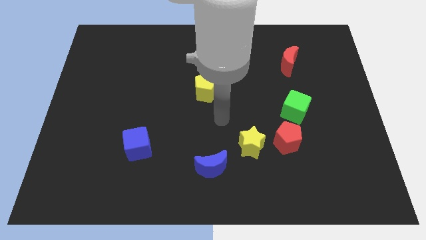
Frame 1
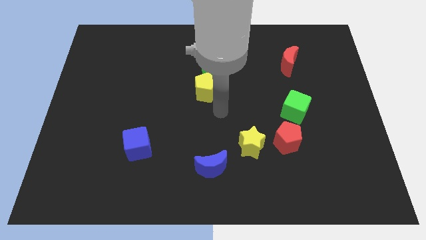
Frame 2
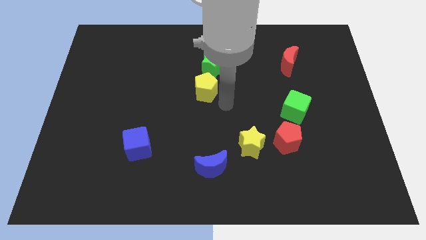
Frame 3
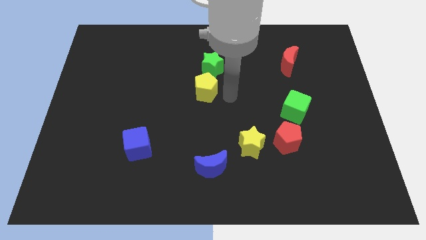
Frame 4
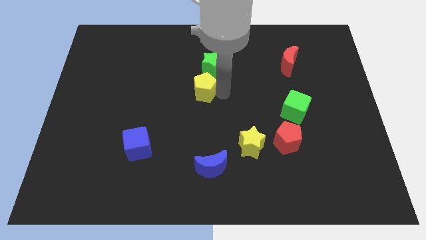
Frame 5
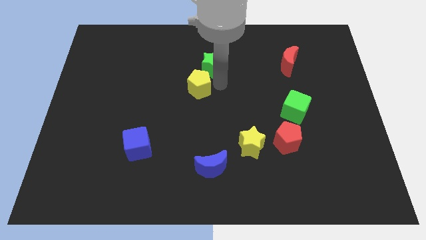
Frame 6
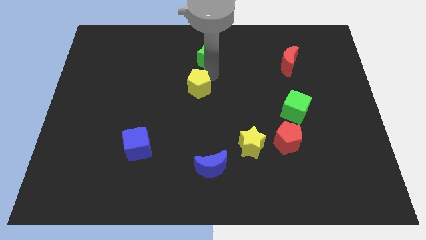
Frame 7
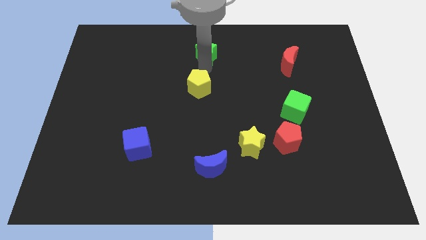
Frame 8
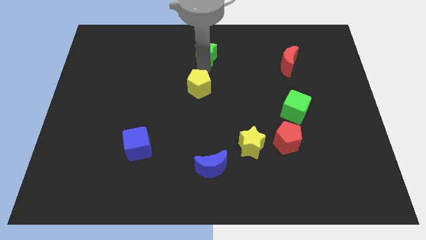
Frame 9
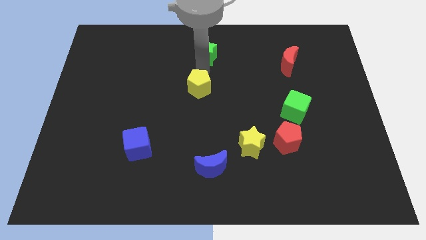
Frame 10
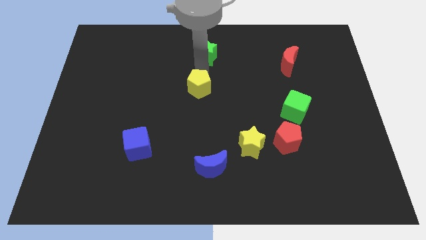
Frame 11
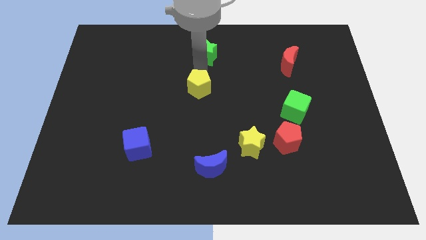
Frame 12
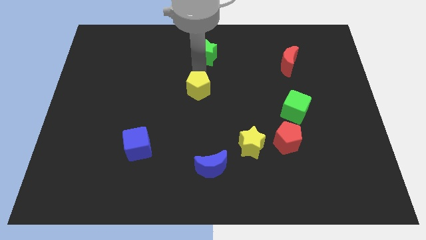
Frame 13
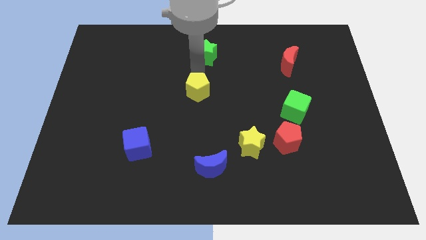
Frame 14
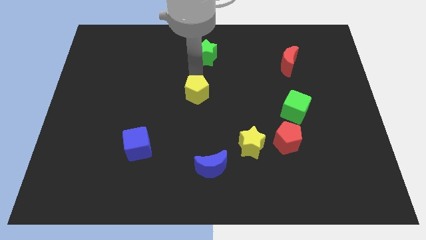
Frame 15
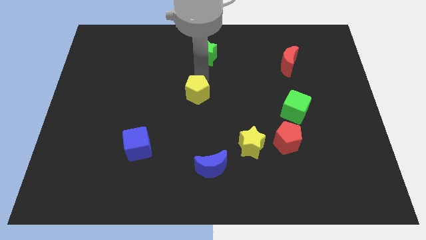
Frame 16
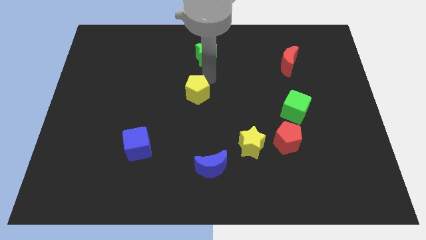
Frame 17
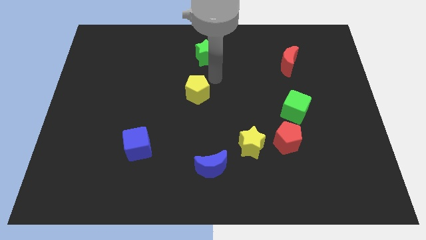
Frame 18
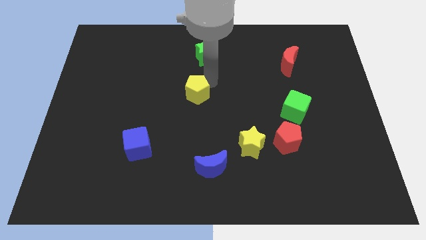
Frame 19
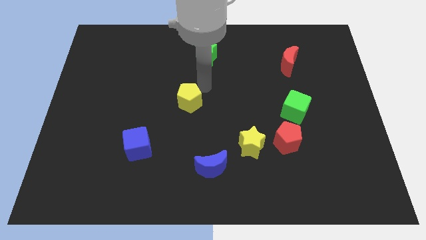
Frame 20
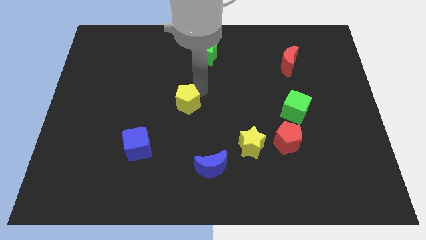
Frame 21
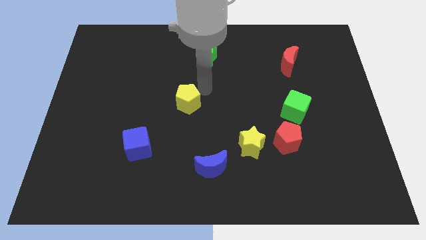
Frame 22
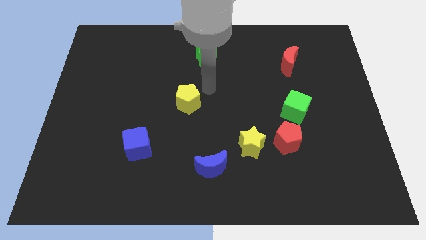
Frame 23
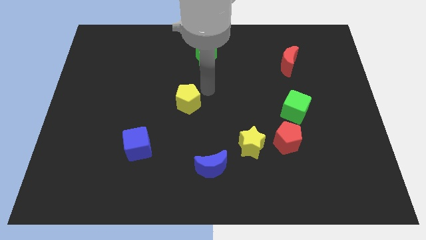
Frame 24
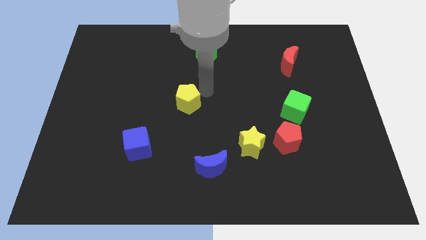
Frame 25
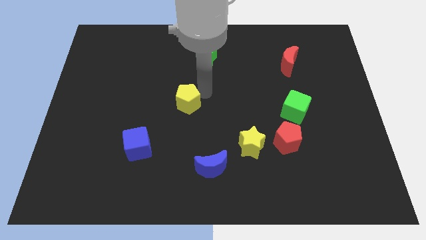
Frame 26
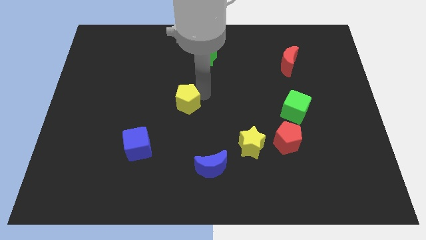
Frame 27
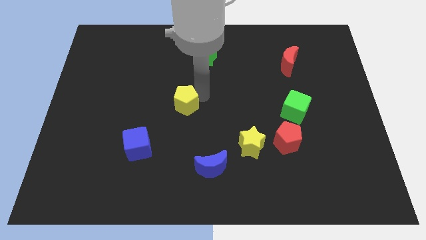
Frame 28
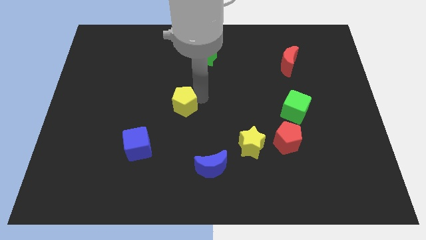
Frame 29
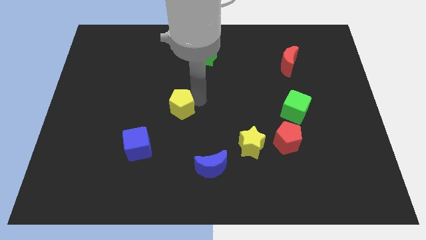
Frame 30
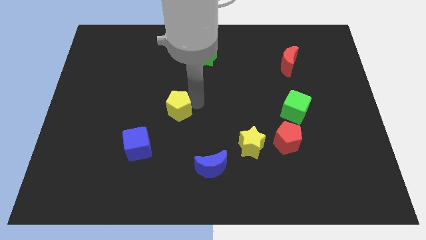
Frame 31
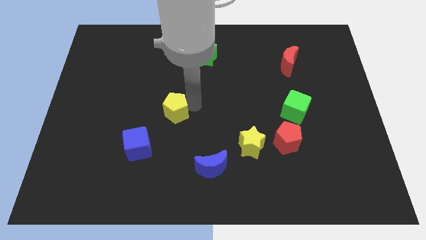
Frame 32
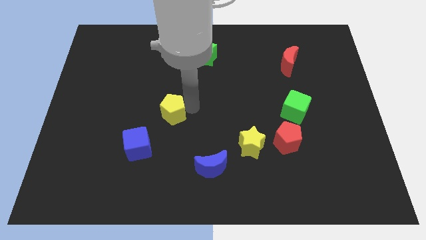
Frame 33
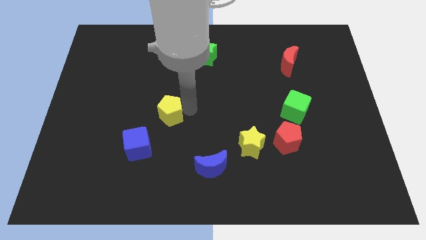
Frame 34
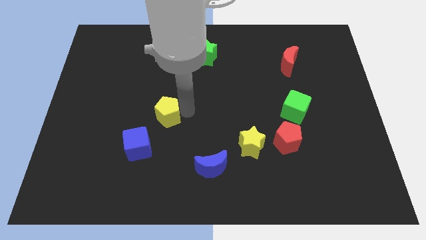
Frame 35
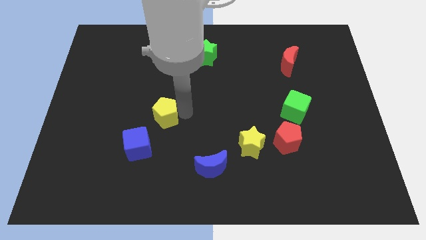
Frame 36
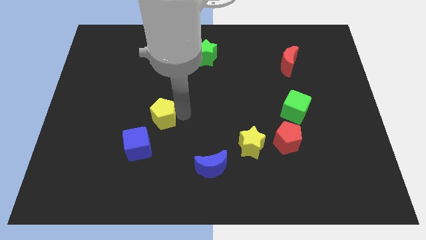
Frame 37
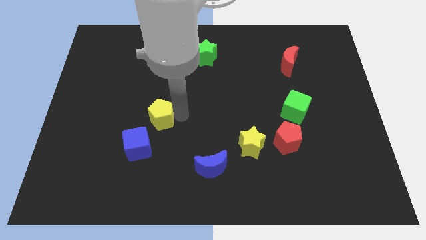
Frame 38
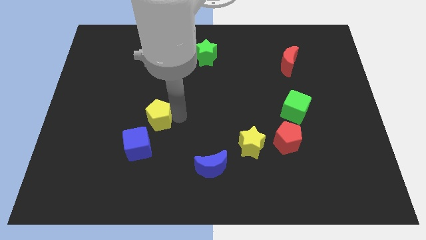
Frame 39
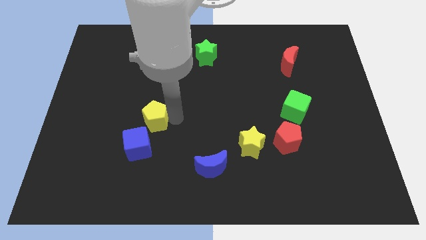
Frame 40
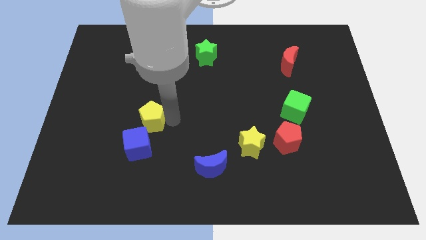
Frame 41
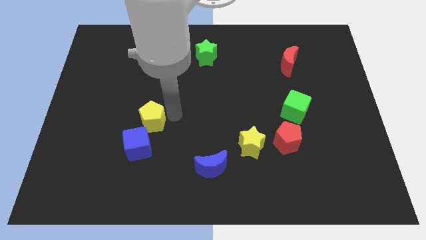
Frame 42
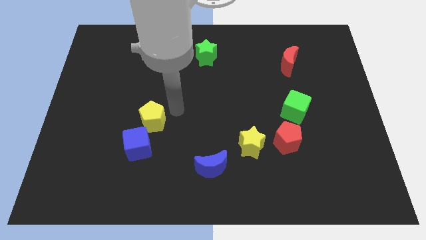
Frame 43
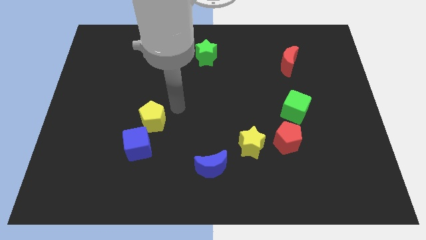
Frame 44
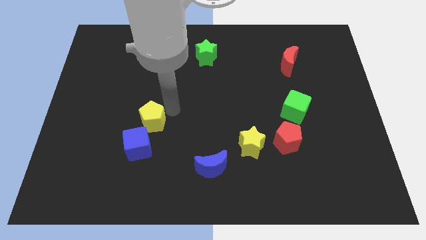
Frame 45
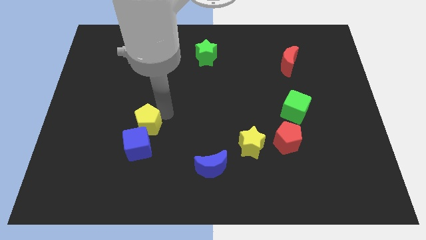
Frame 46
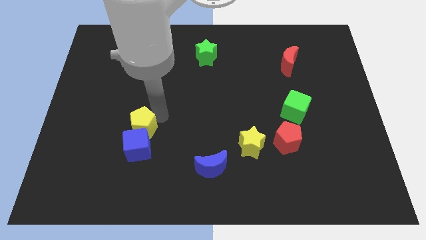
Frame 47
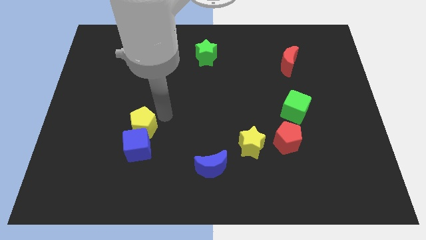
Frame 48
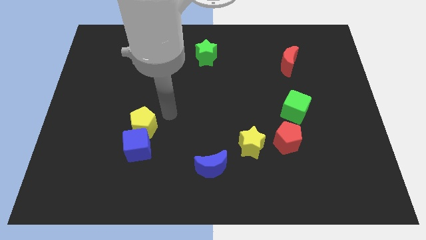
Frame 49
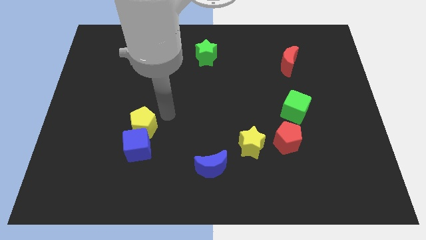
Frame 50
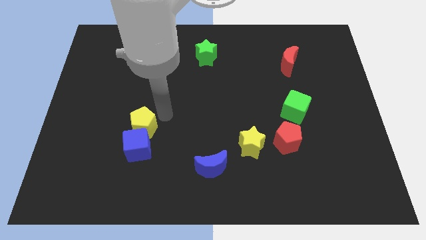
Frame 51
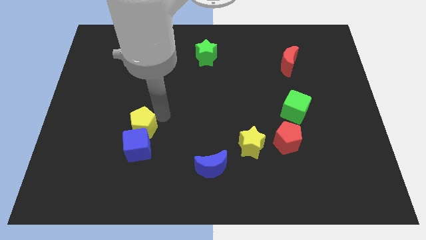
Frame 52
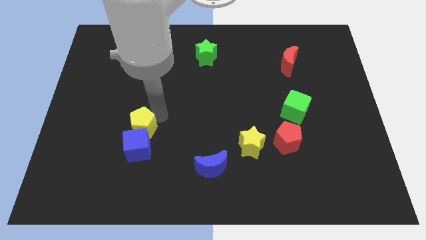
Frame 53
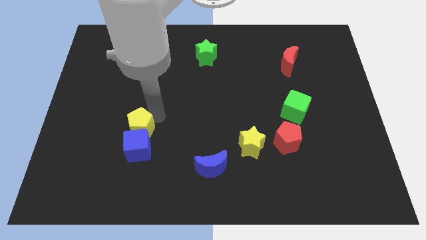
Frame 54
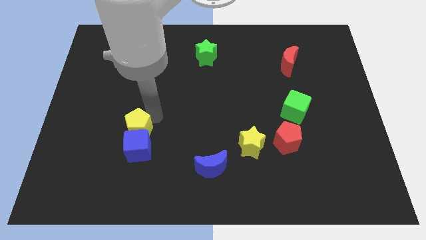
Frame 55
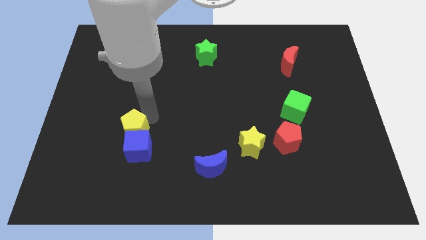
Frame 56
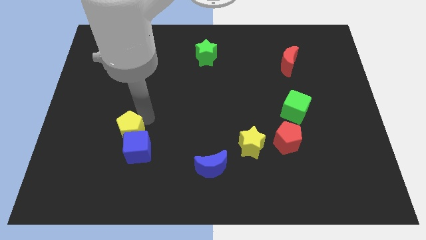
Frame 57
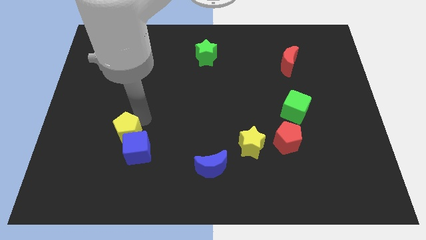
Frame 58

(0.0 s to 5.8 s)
push the yellow pentagon diagonally downwards and left

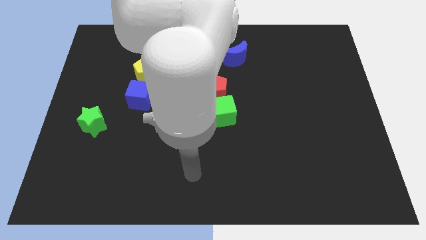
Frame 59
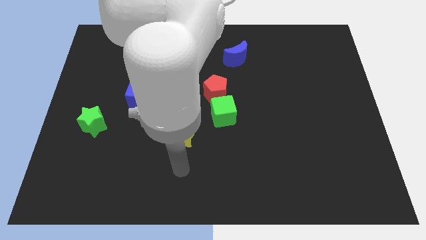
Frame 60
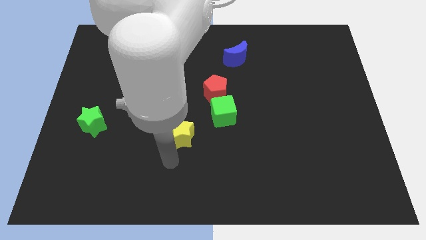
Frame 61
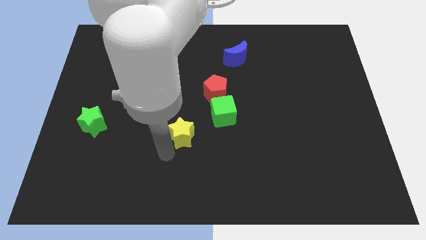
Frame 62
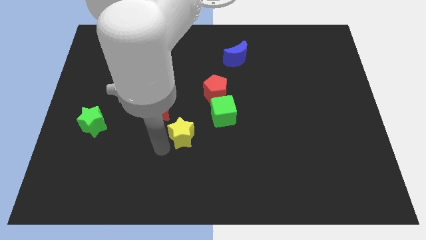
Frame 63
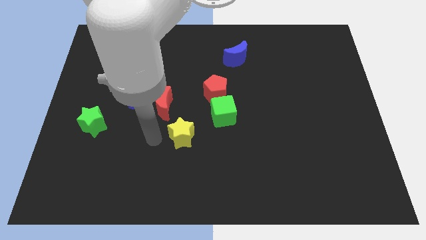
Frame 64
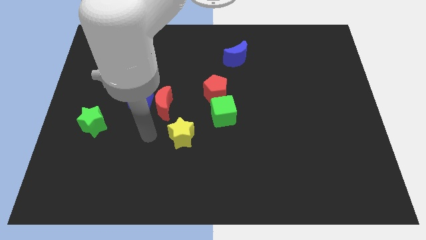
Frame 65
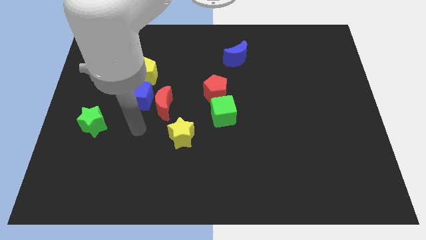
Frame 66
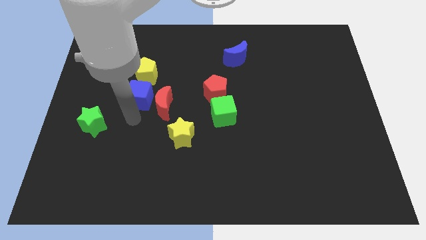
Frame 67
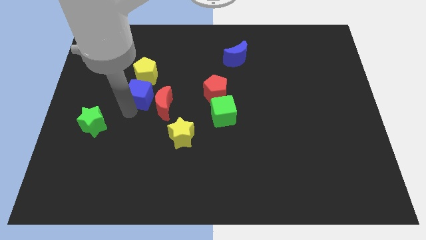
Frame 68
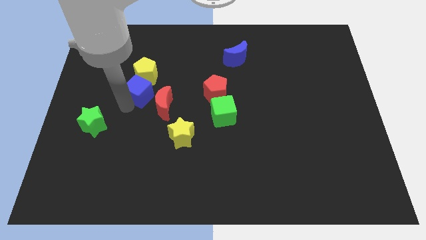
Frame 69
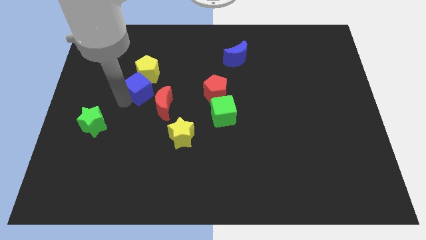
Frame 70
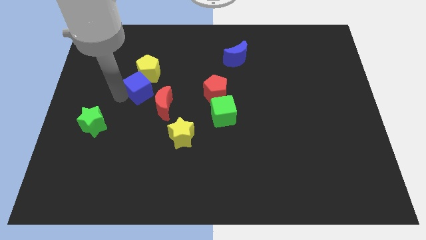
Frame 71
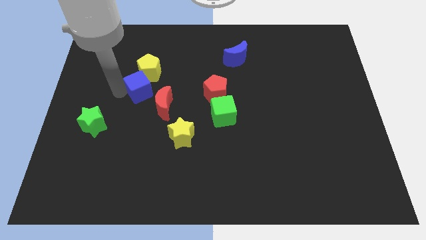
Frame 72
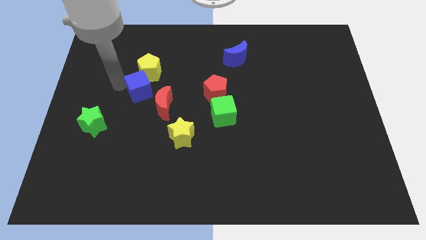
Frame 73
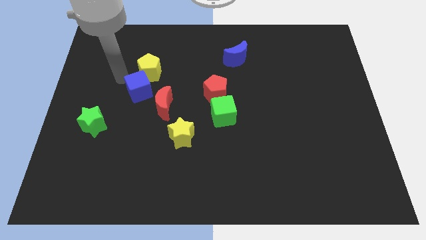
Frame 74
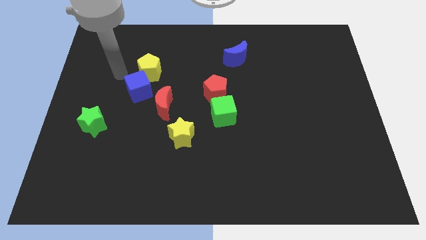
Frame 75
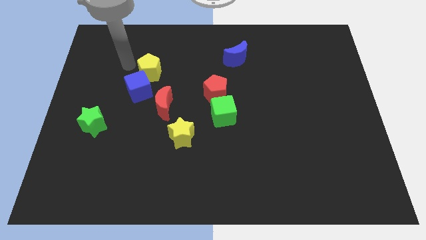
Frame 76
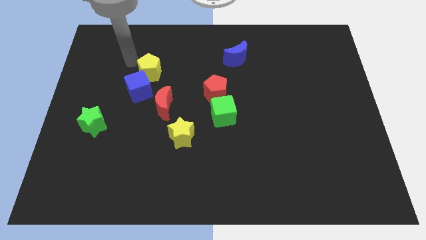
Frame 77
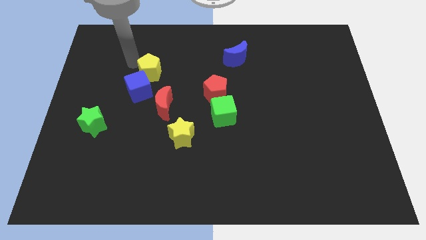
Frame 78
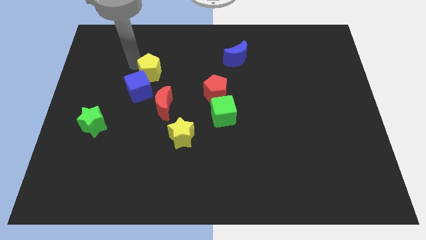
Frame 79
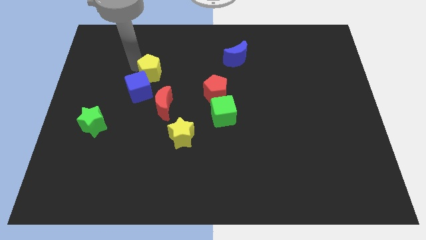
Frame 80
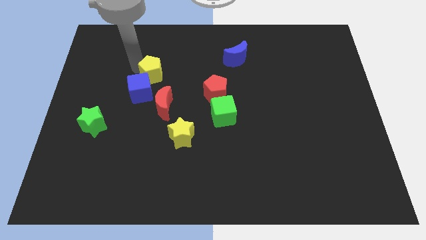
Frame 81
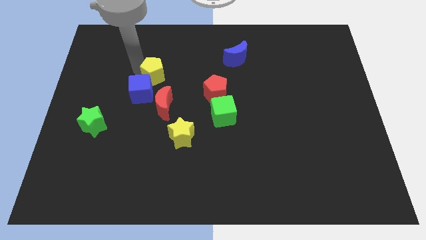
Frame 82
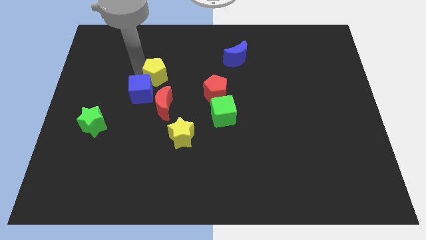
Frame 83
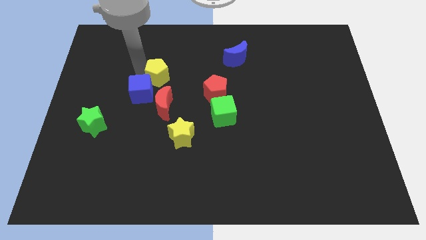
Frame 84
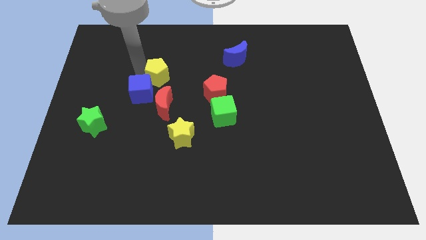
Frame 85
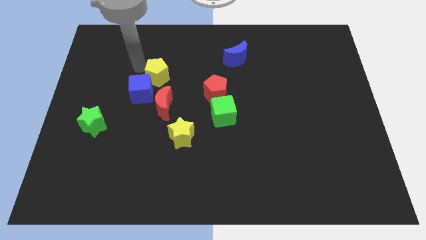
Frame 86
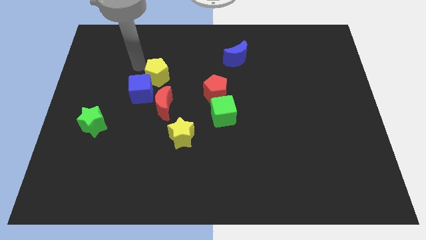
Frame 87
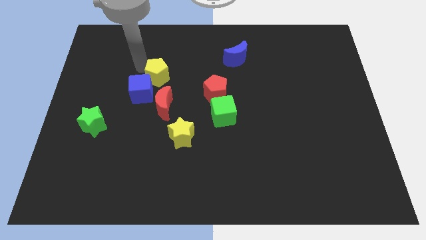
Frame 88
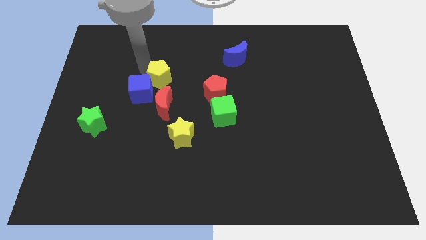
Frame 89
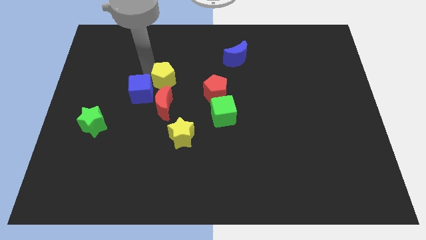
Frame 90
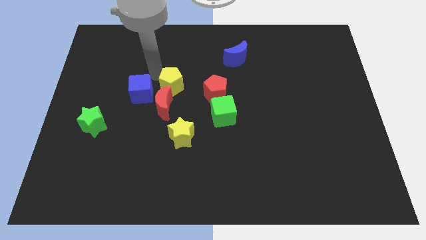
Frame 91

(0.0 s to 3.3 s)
move the yellow pentagon a bit diagonally downwards and right
